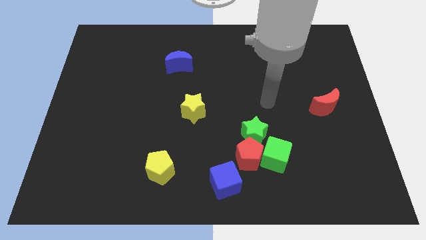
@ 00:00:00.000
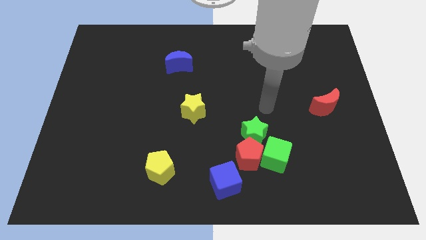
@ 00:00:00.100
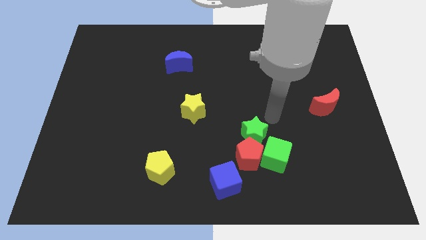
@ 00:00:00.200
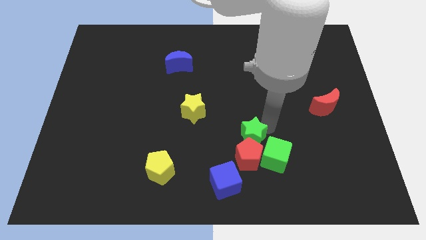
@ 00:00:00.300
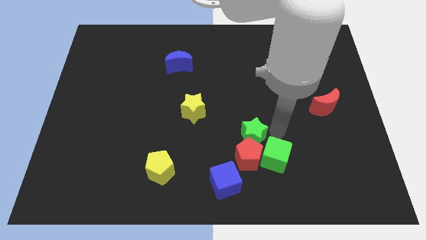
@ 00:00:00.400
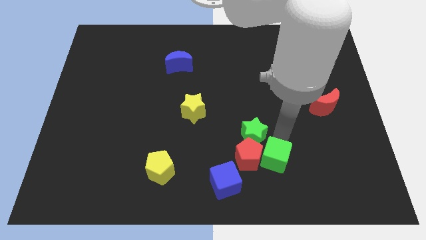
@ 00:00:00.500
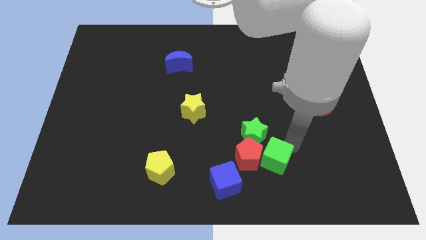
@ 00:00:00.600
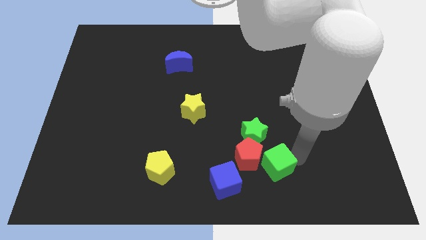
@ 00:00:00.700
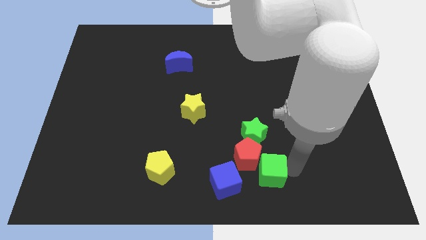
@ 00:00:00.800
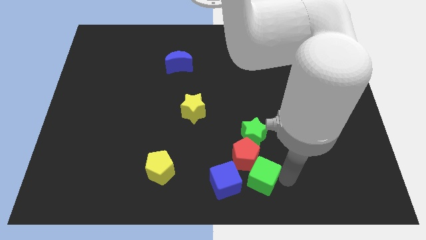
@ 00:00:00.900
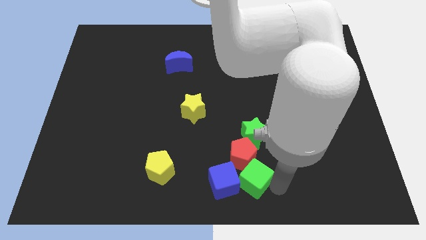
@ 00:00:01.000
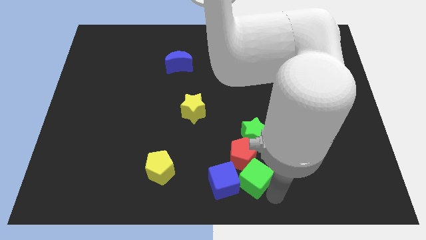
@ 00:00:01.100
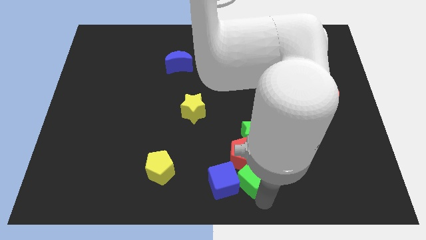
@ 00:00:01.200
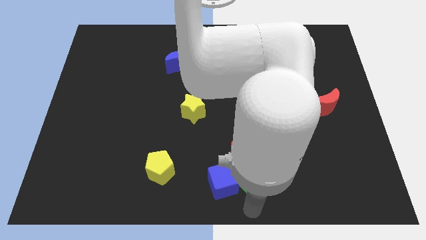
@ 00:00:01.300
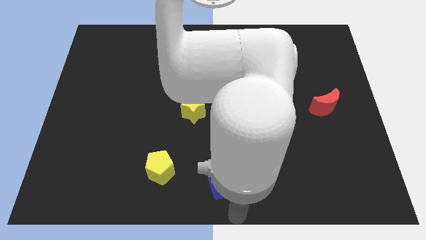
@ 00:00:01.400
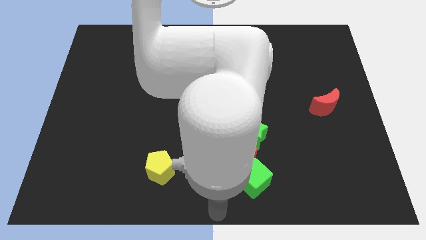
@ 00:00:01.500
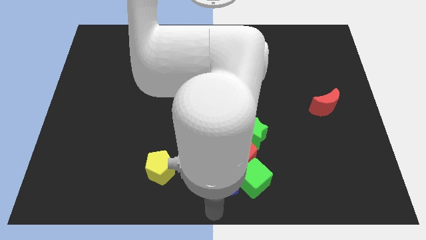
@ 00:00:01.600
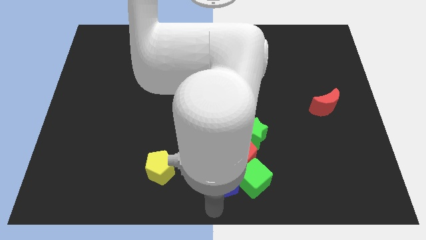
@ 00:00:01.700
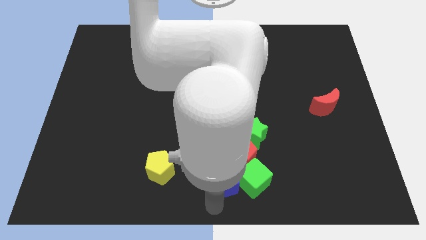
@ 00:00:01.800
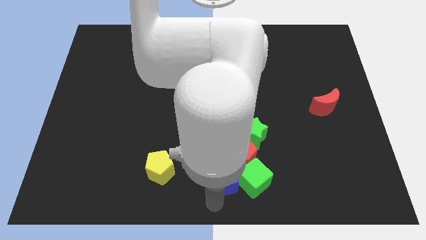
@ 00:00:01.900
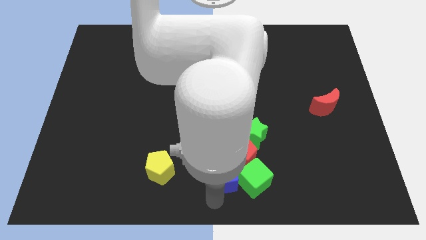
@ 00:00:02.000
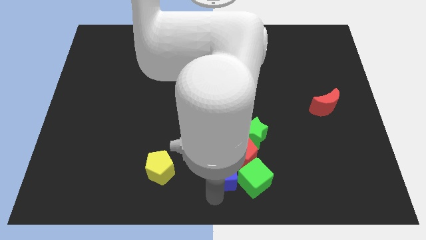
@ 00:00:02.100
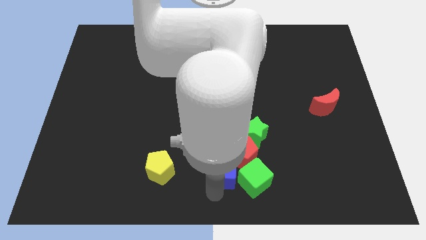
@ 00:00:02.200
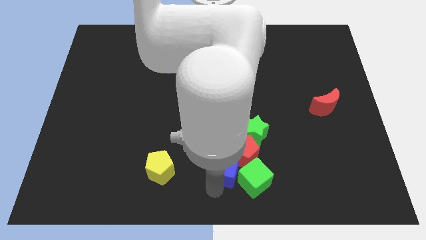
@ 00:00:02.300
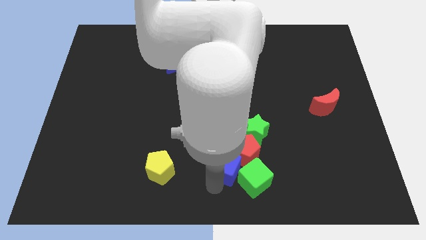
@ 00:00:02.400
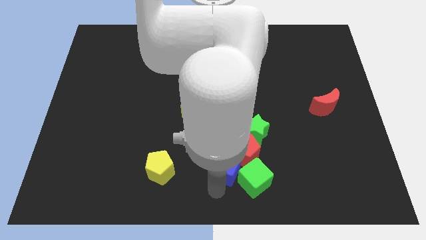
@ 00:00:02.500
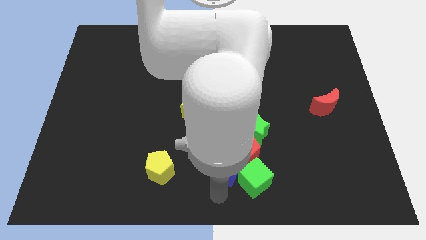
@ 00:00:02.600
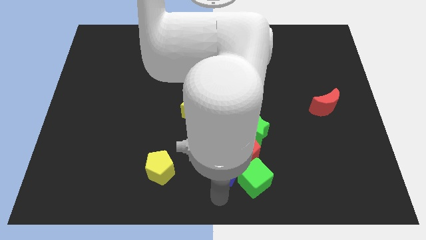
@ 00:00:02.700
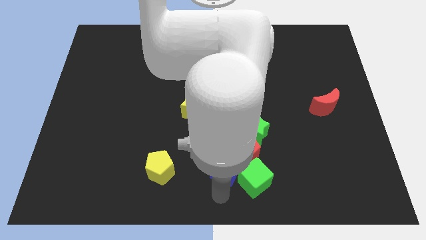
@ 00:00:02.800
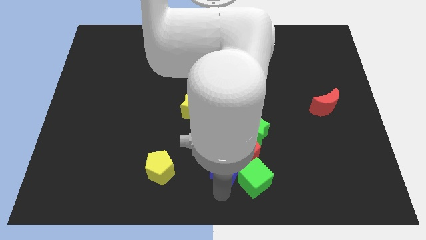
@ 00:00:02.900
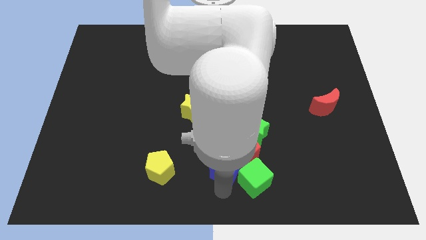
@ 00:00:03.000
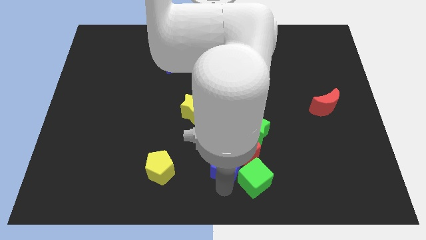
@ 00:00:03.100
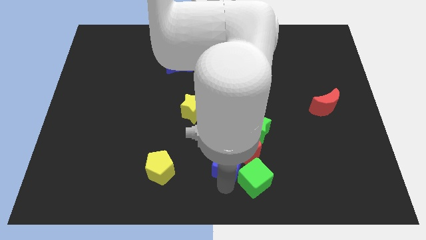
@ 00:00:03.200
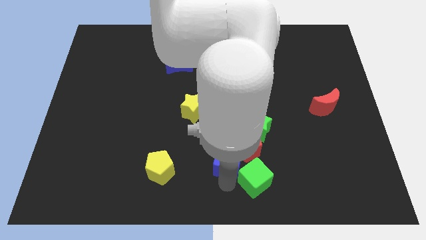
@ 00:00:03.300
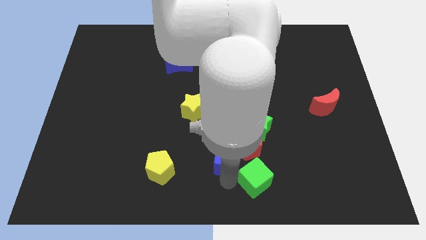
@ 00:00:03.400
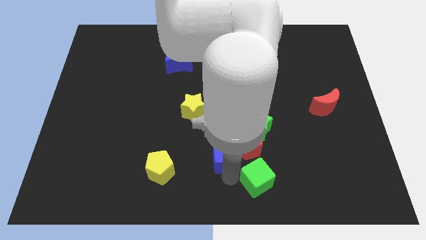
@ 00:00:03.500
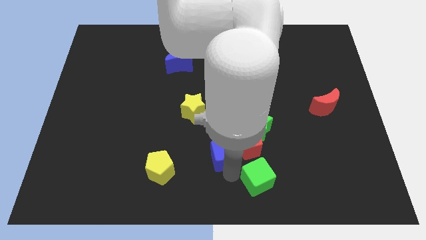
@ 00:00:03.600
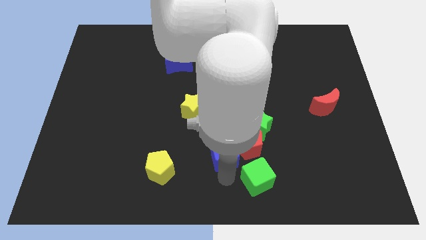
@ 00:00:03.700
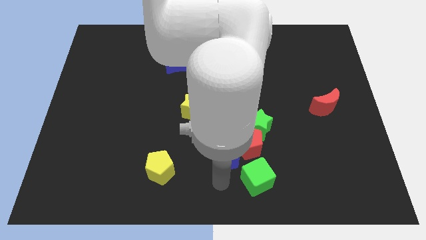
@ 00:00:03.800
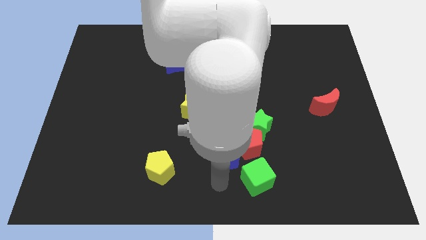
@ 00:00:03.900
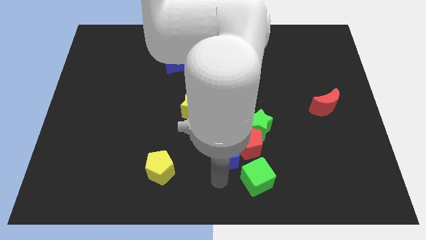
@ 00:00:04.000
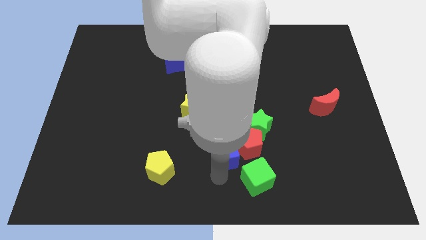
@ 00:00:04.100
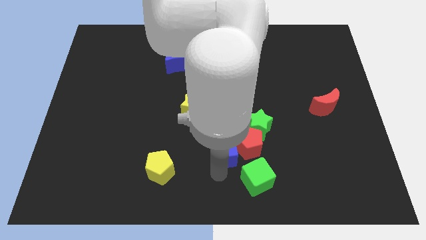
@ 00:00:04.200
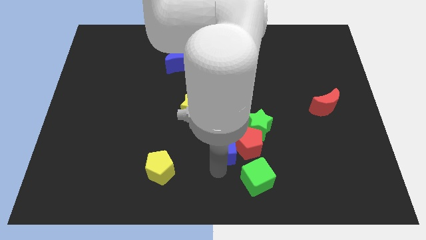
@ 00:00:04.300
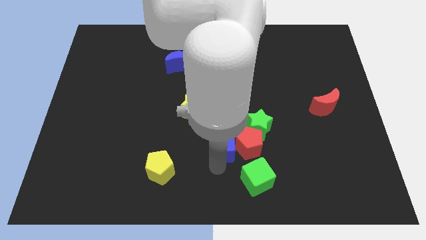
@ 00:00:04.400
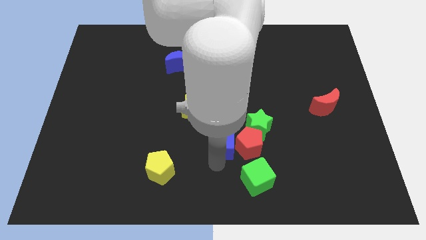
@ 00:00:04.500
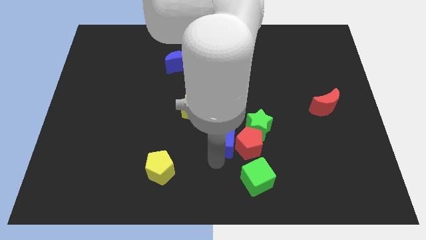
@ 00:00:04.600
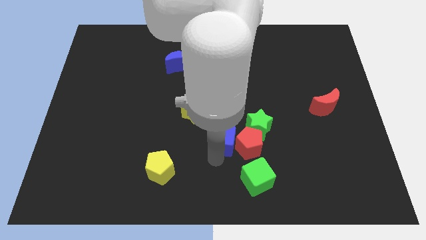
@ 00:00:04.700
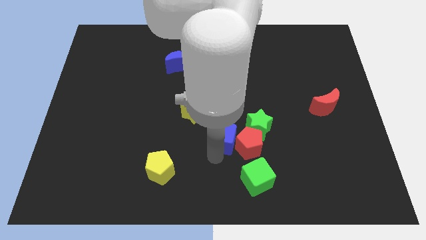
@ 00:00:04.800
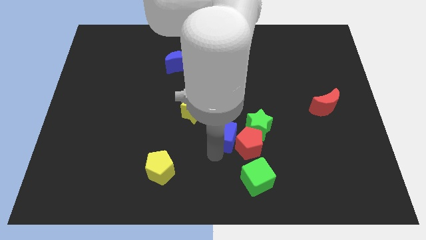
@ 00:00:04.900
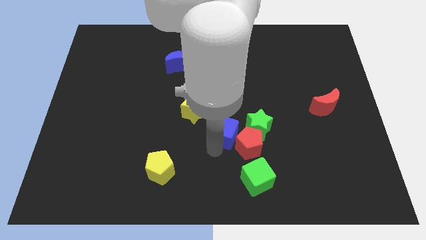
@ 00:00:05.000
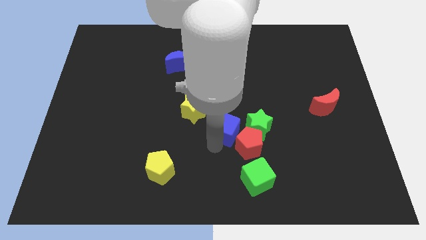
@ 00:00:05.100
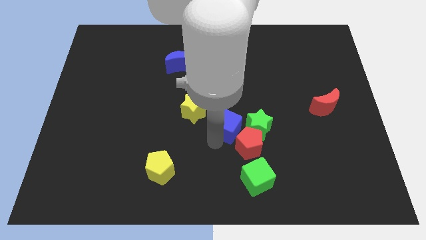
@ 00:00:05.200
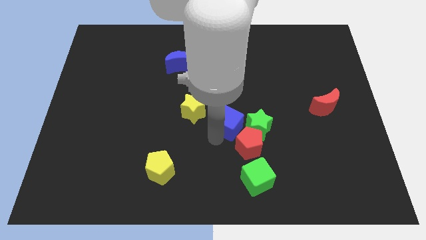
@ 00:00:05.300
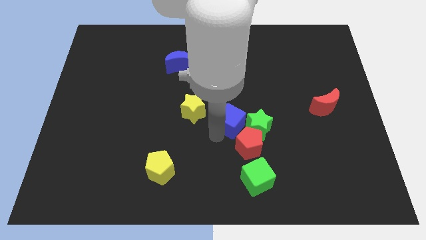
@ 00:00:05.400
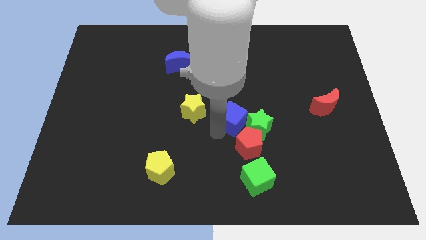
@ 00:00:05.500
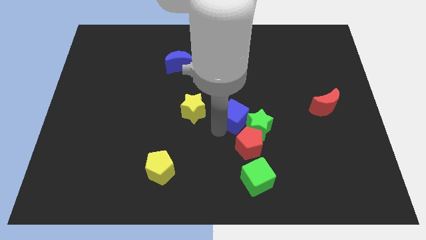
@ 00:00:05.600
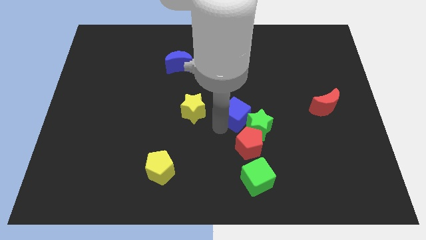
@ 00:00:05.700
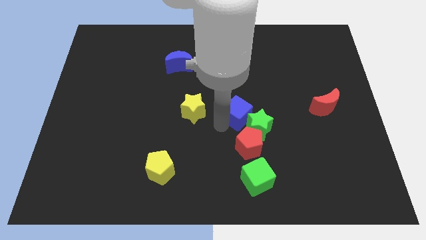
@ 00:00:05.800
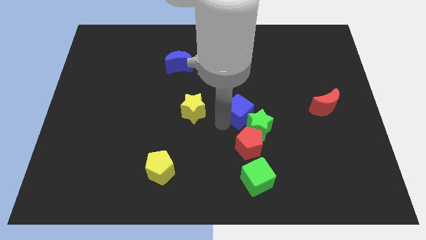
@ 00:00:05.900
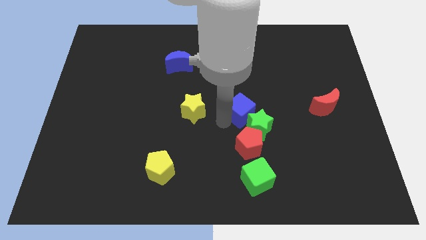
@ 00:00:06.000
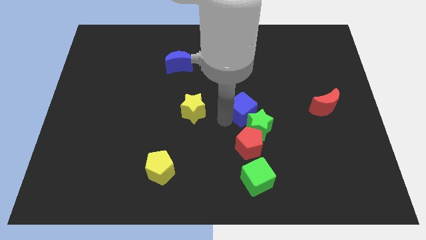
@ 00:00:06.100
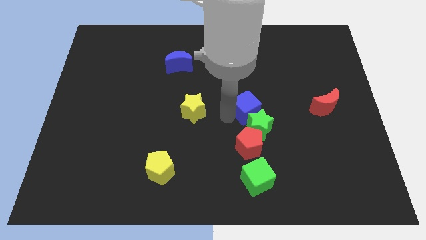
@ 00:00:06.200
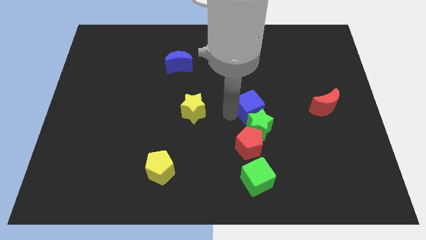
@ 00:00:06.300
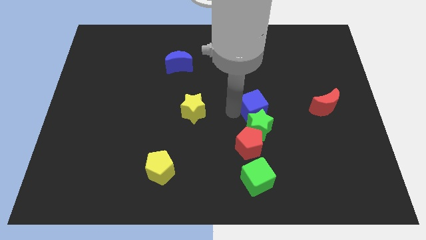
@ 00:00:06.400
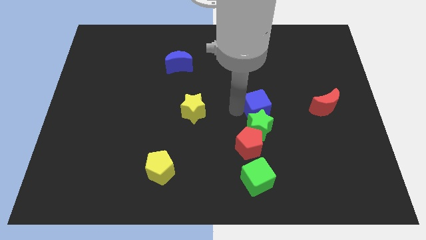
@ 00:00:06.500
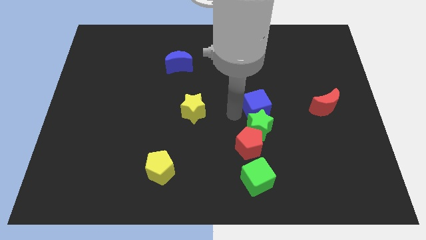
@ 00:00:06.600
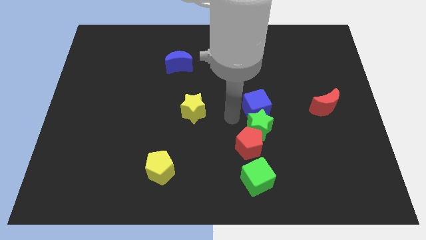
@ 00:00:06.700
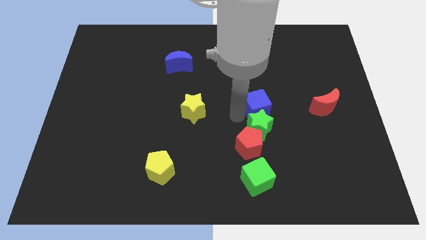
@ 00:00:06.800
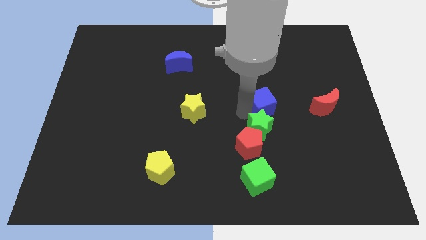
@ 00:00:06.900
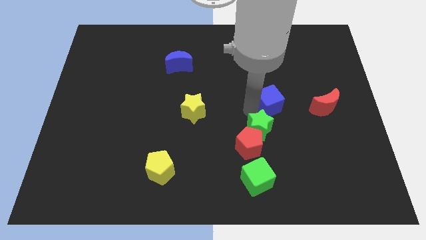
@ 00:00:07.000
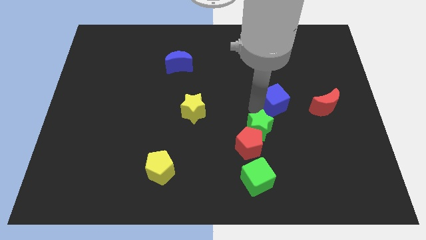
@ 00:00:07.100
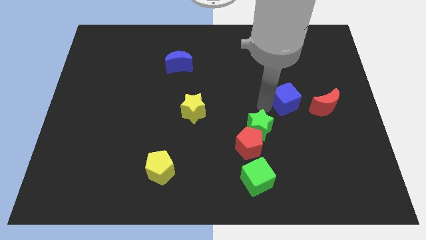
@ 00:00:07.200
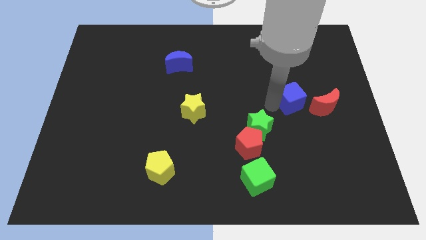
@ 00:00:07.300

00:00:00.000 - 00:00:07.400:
put the blue cube to the top left side of the red moon
